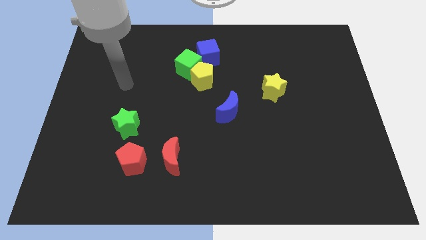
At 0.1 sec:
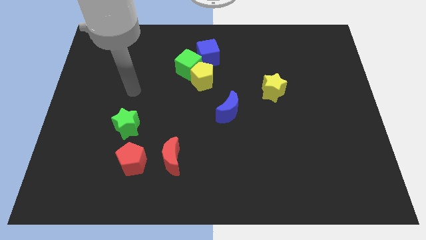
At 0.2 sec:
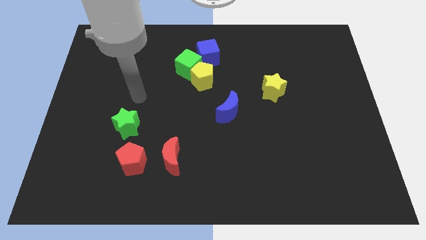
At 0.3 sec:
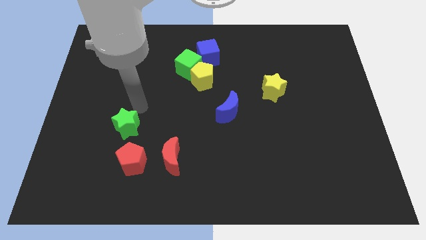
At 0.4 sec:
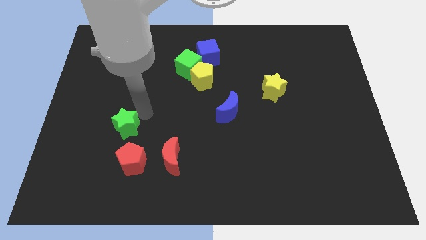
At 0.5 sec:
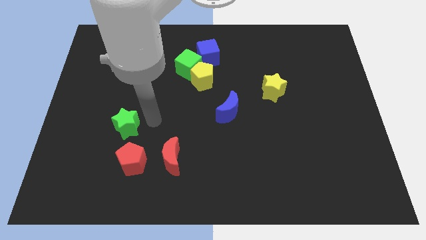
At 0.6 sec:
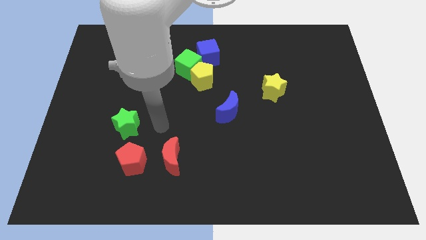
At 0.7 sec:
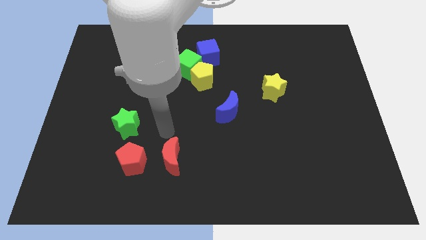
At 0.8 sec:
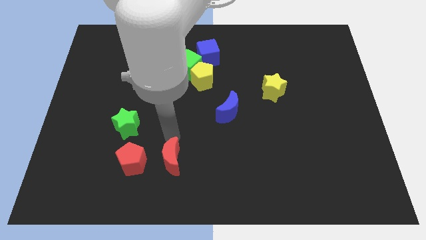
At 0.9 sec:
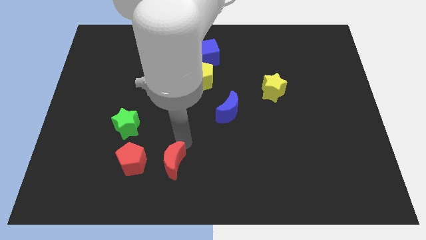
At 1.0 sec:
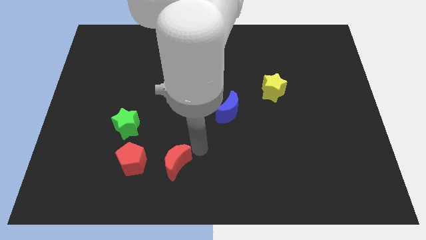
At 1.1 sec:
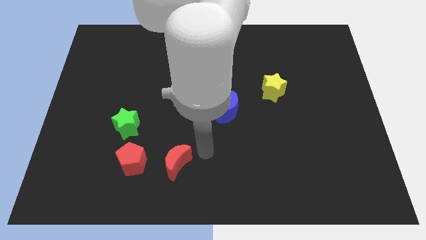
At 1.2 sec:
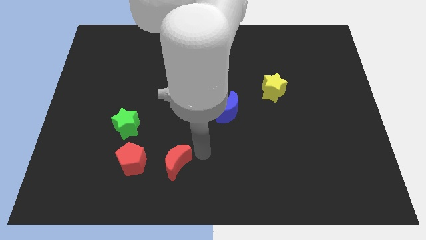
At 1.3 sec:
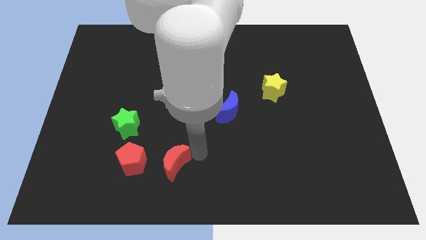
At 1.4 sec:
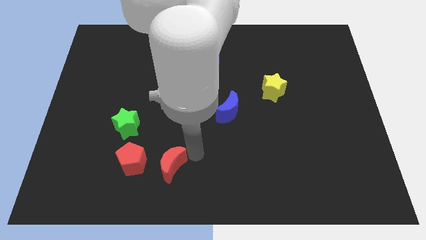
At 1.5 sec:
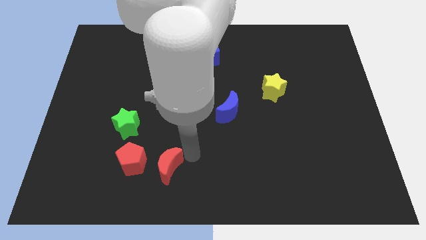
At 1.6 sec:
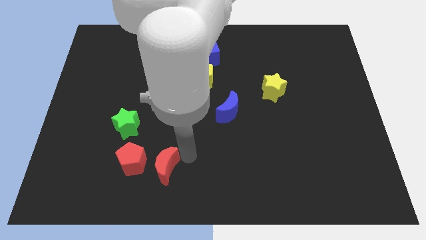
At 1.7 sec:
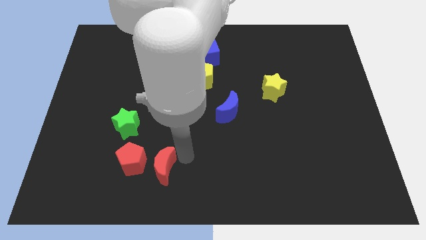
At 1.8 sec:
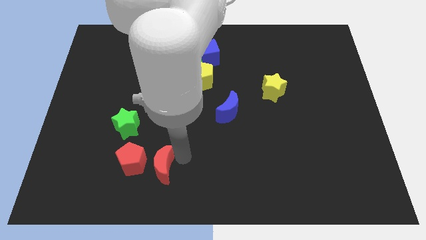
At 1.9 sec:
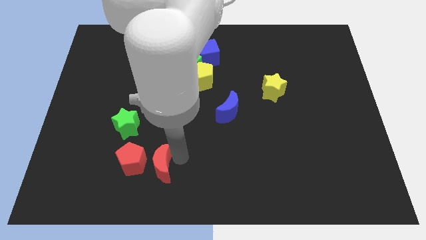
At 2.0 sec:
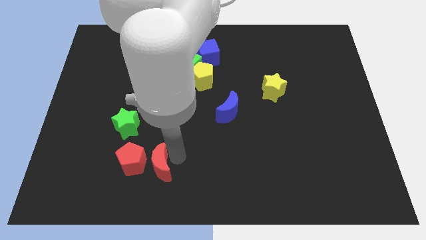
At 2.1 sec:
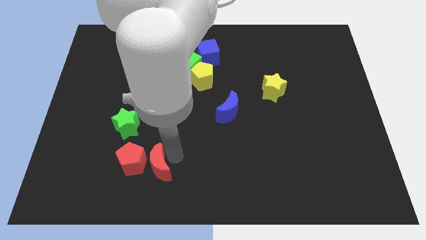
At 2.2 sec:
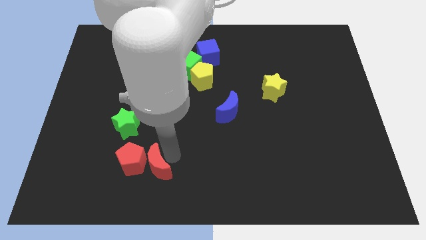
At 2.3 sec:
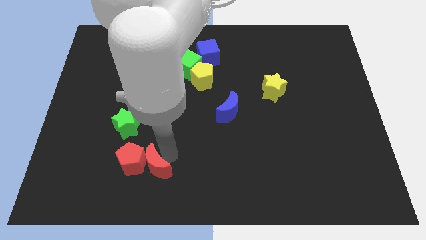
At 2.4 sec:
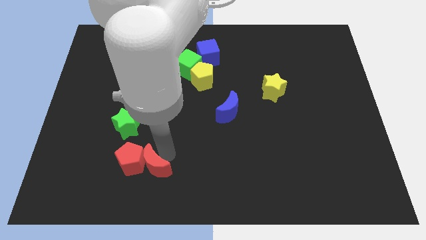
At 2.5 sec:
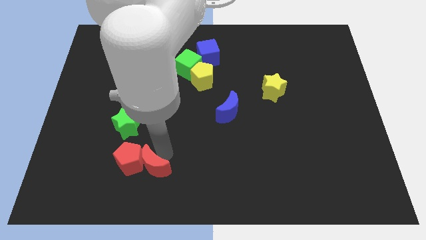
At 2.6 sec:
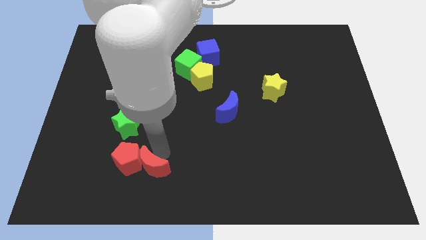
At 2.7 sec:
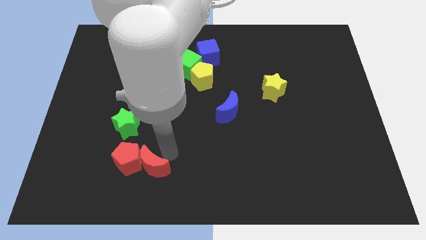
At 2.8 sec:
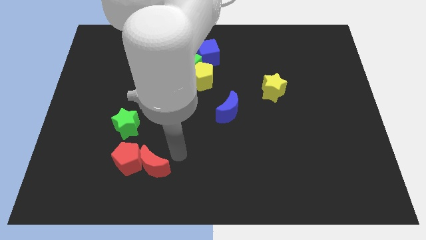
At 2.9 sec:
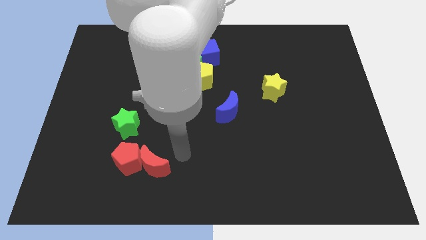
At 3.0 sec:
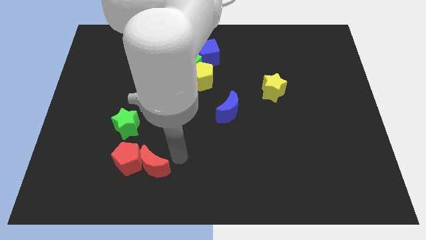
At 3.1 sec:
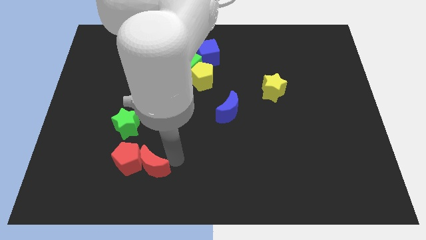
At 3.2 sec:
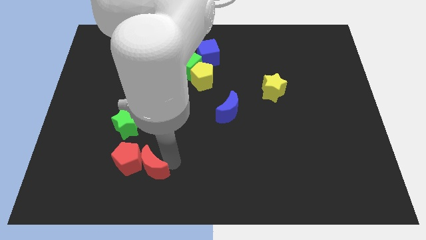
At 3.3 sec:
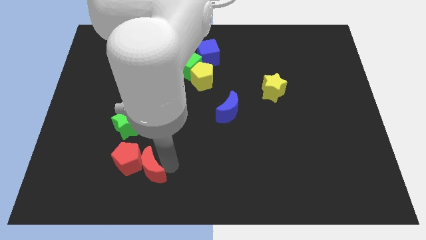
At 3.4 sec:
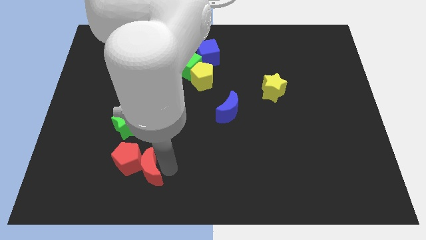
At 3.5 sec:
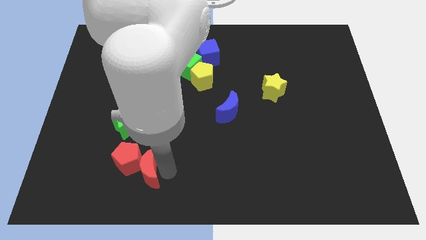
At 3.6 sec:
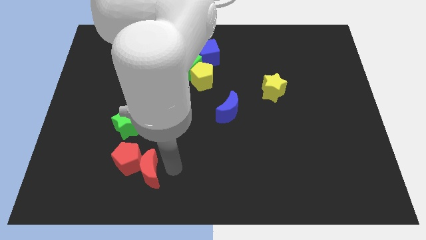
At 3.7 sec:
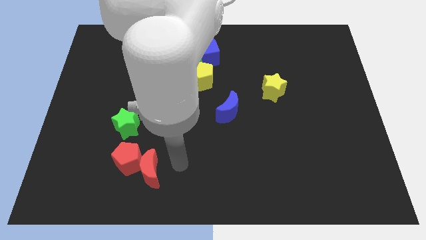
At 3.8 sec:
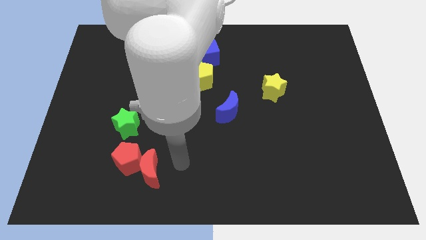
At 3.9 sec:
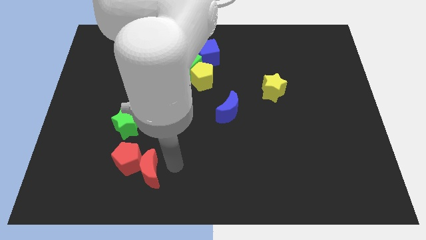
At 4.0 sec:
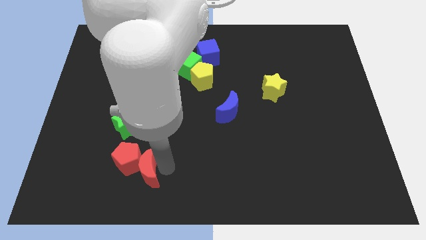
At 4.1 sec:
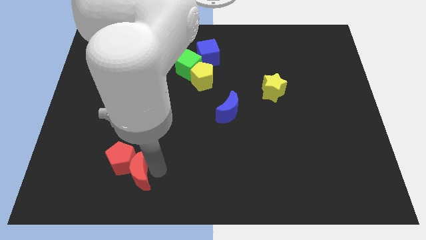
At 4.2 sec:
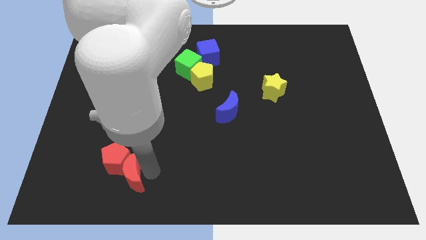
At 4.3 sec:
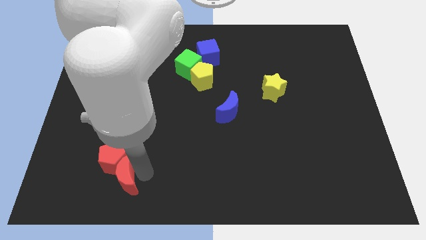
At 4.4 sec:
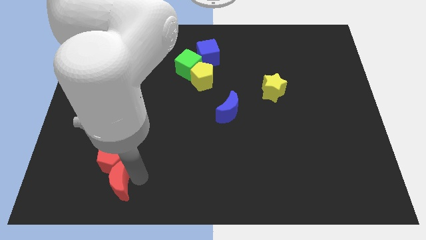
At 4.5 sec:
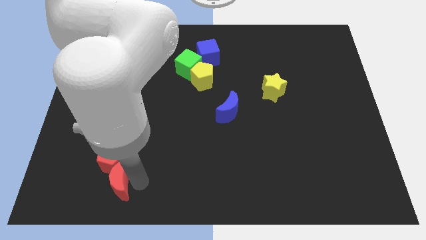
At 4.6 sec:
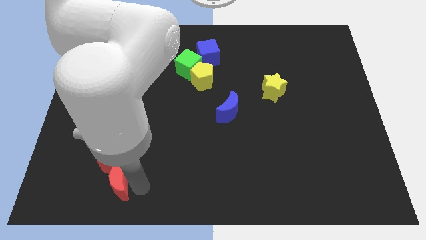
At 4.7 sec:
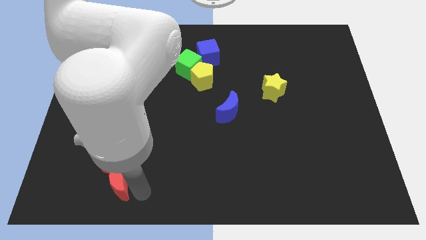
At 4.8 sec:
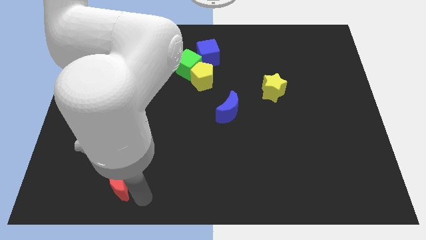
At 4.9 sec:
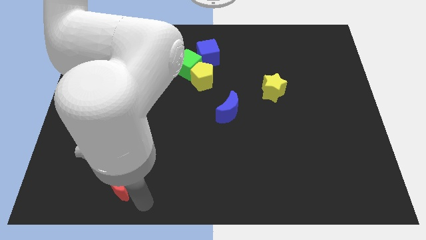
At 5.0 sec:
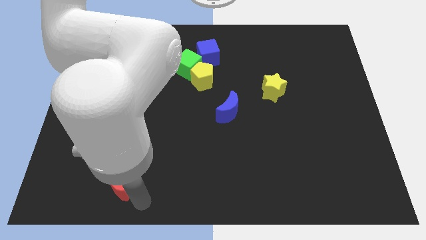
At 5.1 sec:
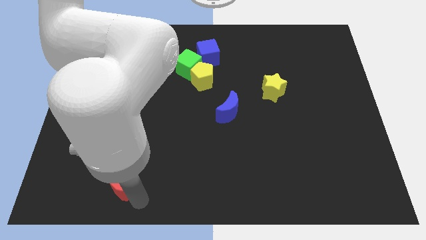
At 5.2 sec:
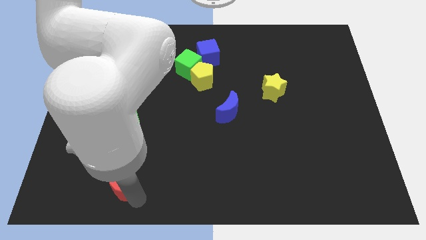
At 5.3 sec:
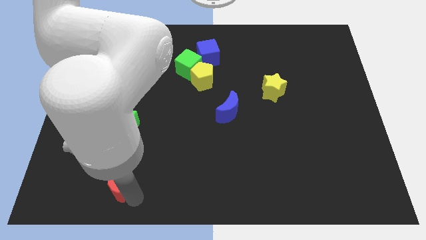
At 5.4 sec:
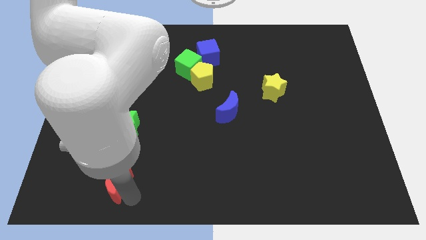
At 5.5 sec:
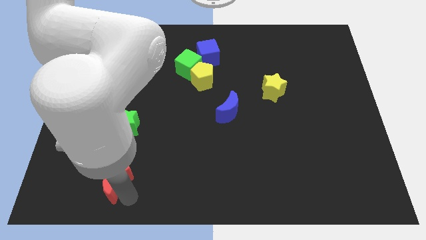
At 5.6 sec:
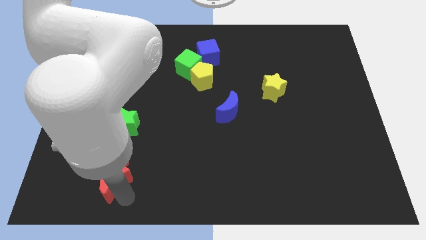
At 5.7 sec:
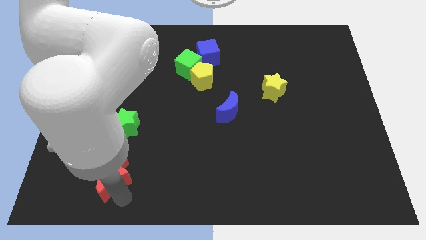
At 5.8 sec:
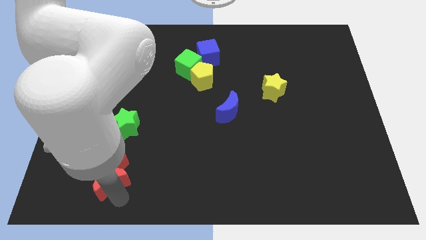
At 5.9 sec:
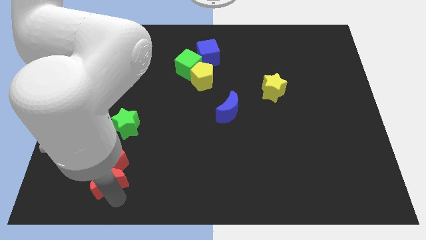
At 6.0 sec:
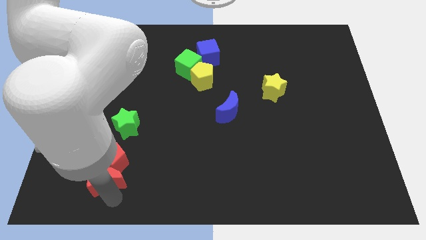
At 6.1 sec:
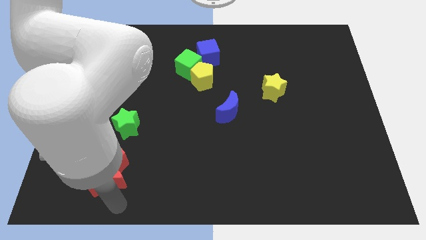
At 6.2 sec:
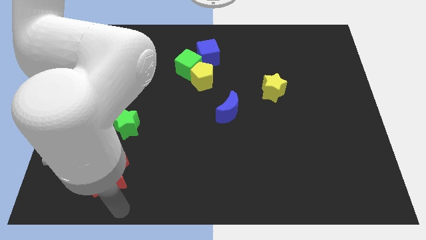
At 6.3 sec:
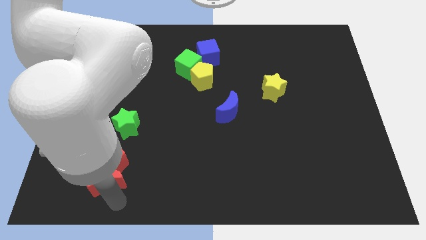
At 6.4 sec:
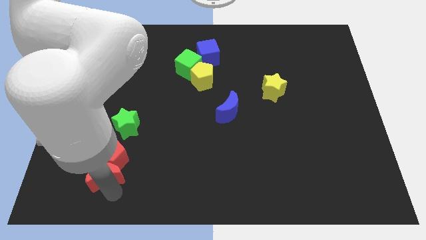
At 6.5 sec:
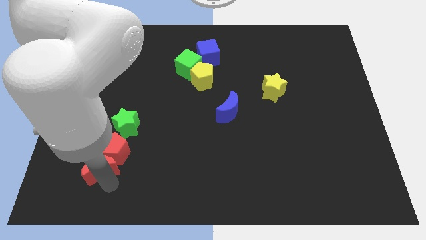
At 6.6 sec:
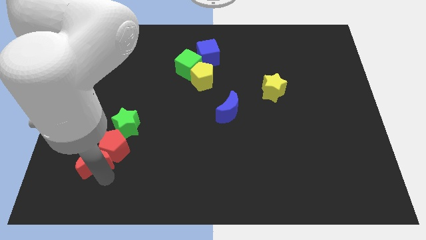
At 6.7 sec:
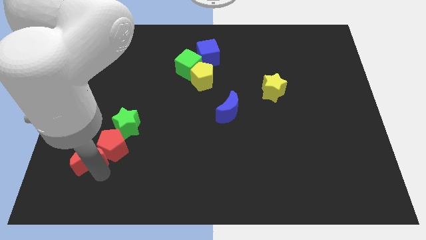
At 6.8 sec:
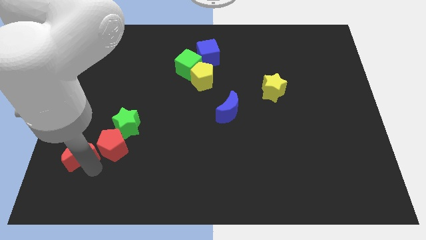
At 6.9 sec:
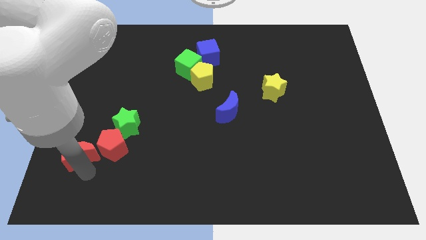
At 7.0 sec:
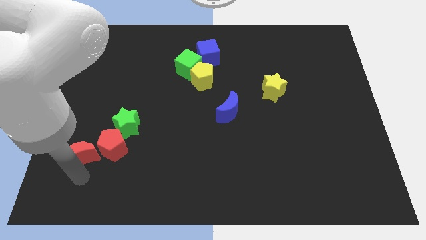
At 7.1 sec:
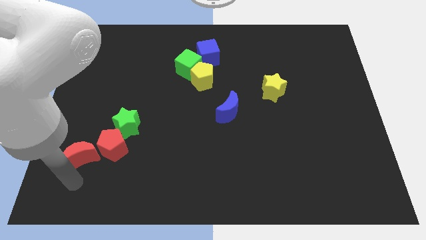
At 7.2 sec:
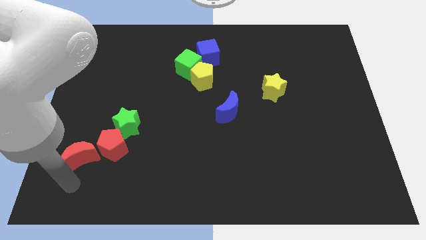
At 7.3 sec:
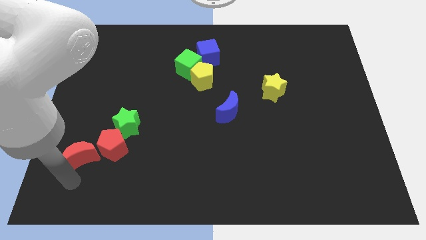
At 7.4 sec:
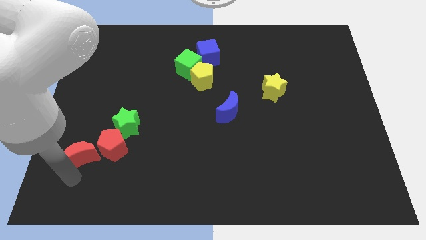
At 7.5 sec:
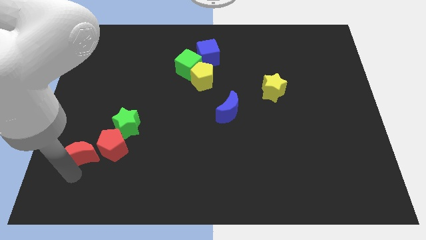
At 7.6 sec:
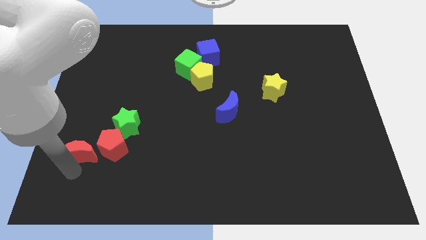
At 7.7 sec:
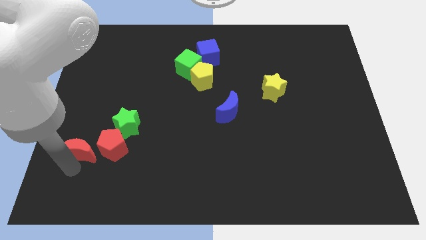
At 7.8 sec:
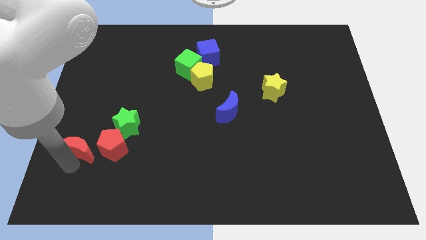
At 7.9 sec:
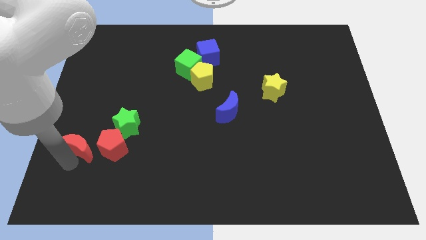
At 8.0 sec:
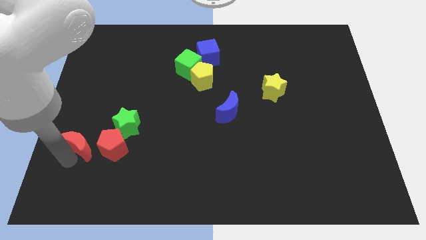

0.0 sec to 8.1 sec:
put the red moon to the top left of the red pentagon
